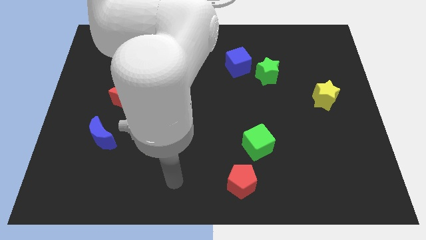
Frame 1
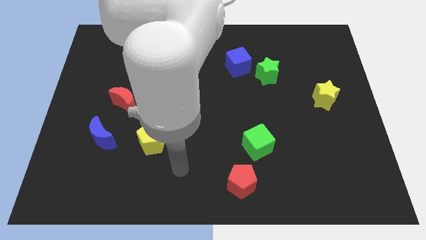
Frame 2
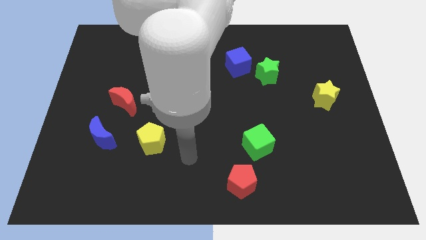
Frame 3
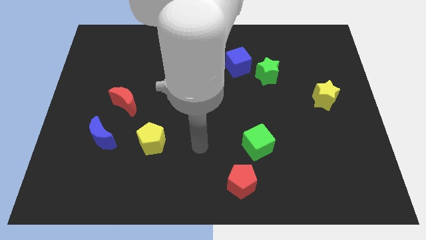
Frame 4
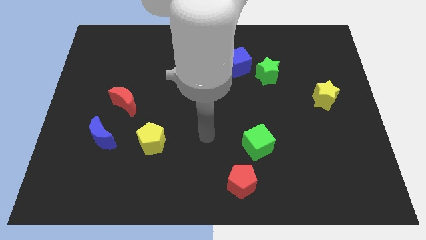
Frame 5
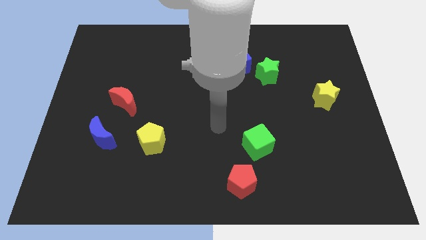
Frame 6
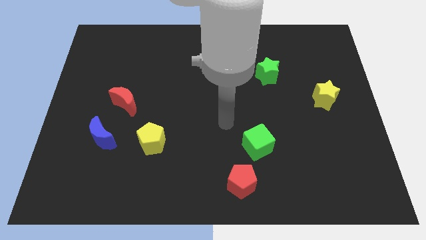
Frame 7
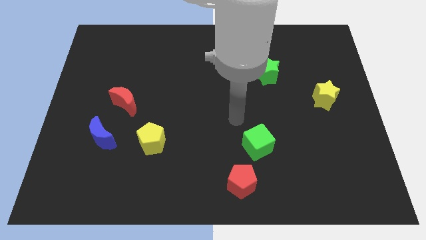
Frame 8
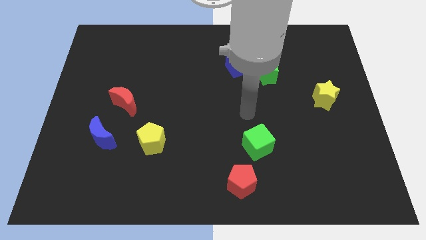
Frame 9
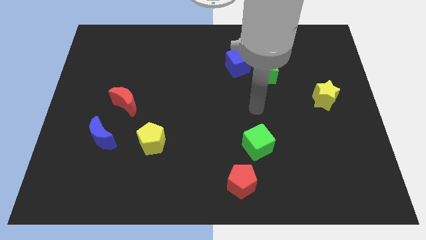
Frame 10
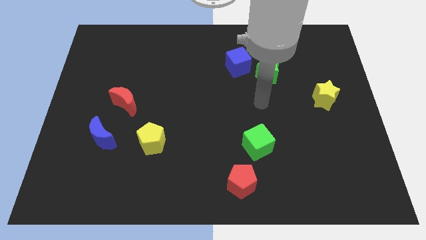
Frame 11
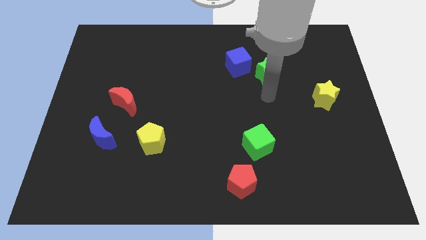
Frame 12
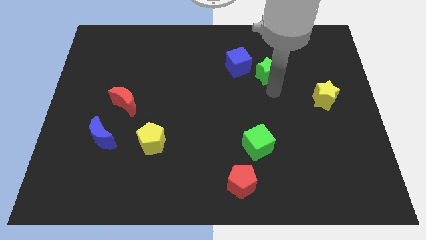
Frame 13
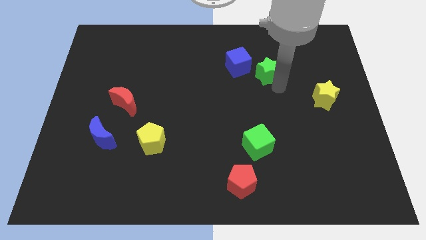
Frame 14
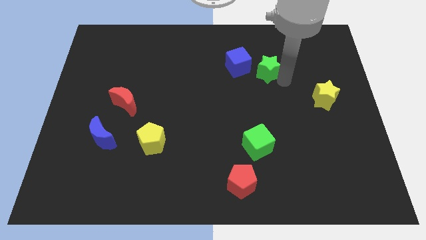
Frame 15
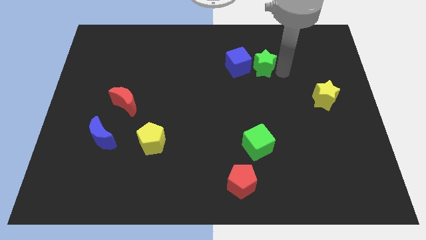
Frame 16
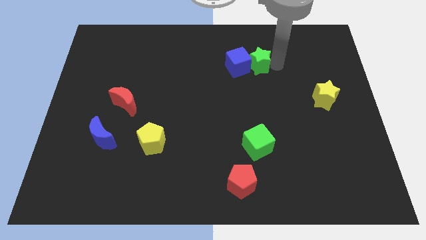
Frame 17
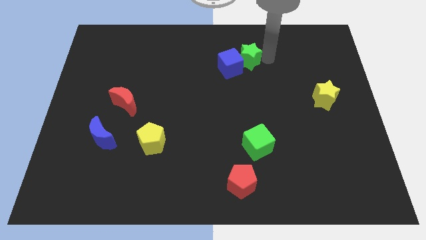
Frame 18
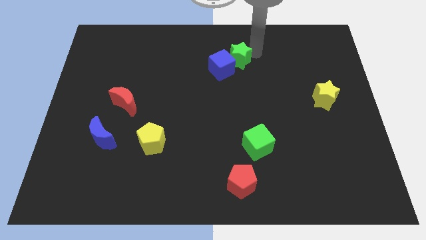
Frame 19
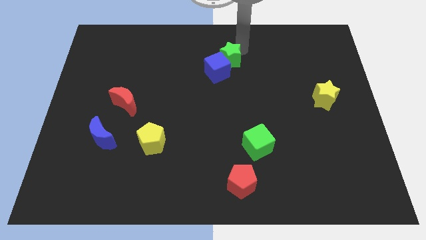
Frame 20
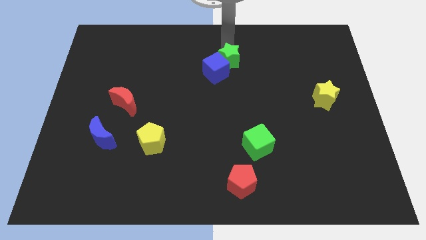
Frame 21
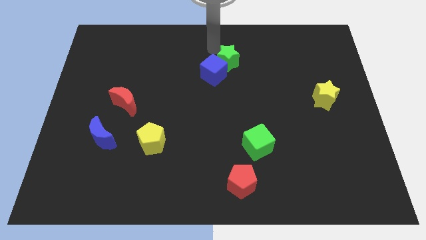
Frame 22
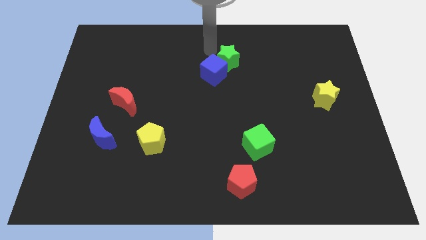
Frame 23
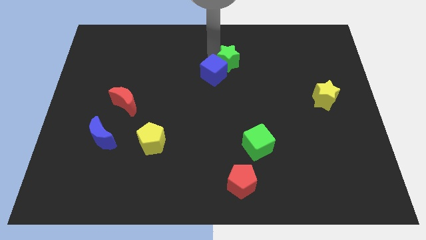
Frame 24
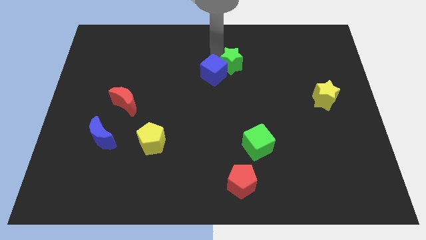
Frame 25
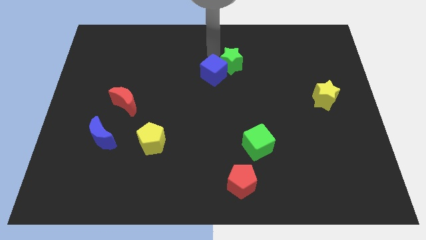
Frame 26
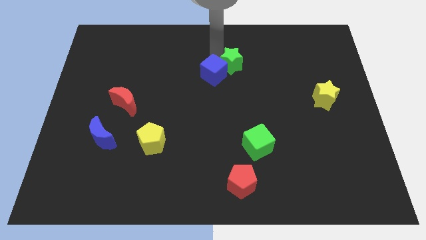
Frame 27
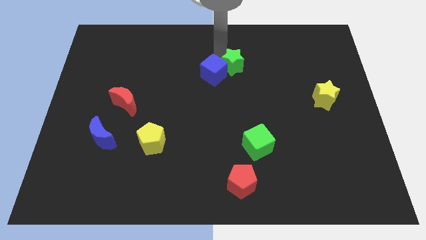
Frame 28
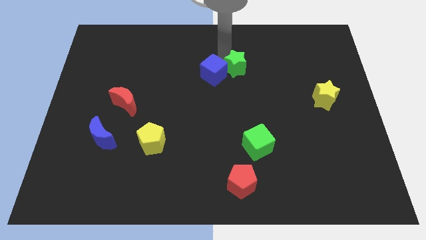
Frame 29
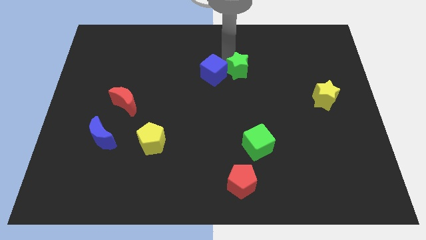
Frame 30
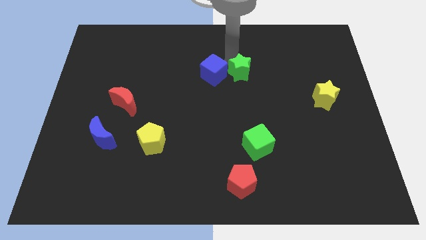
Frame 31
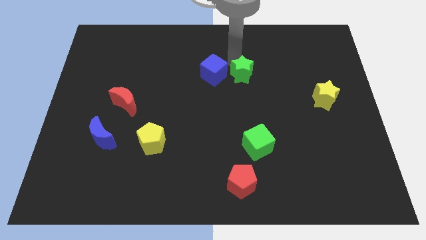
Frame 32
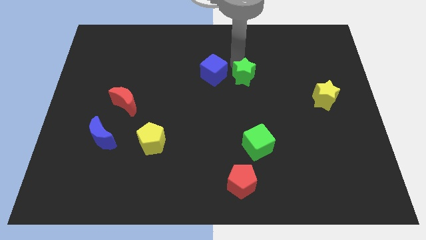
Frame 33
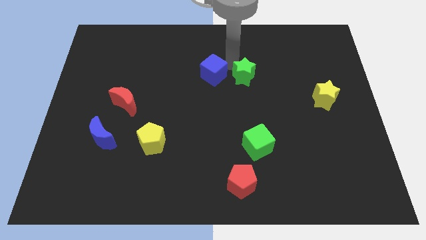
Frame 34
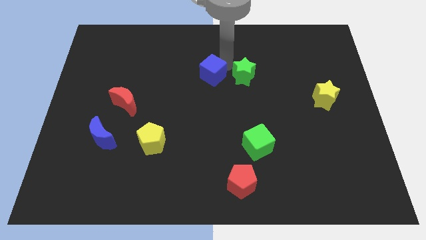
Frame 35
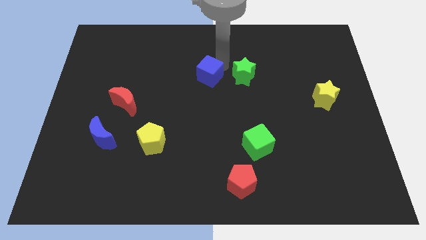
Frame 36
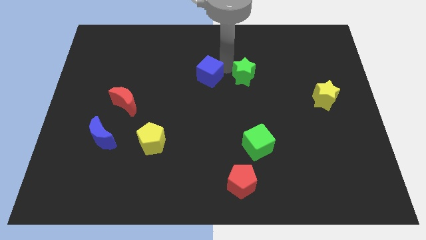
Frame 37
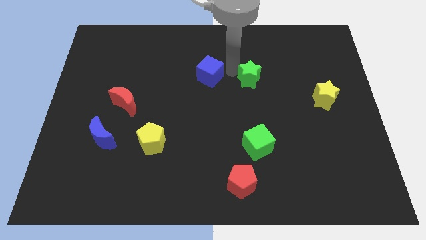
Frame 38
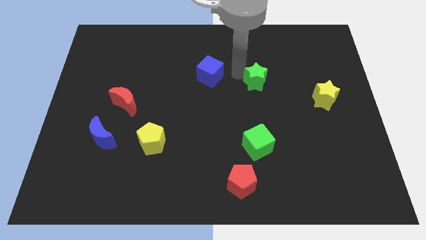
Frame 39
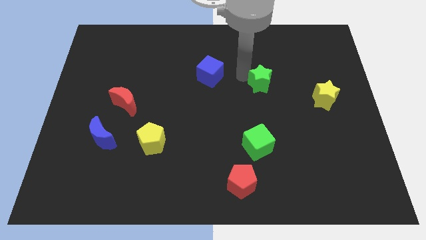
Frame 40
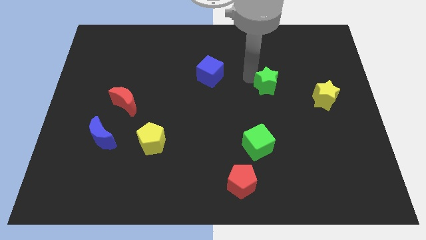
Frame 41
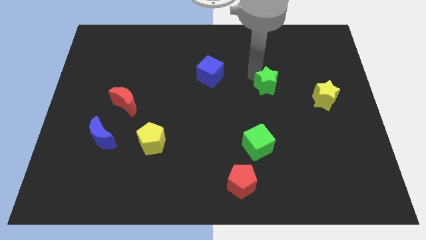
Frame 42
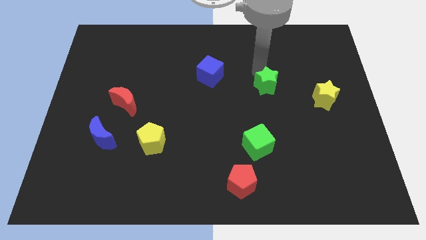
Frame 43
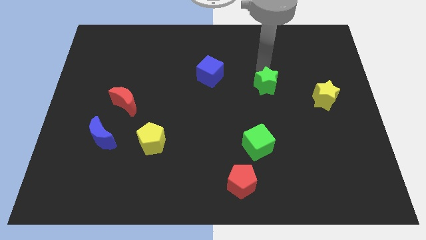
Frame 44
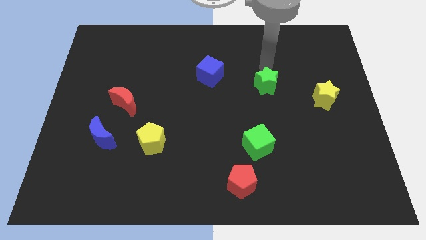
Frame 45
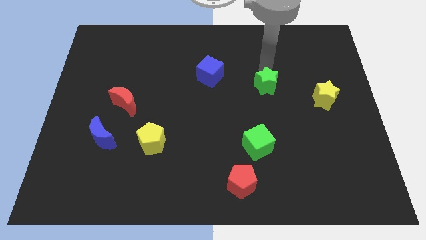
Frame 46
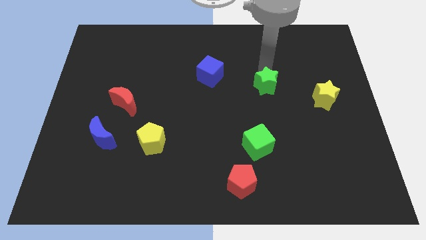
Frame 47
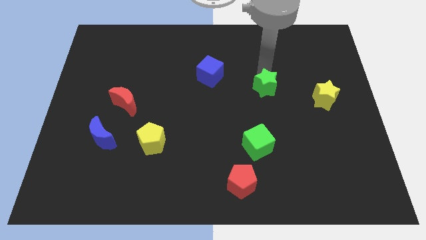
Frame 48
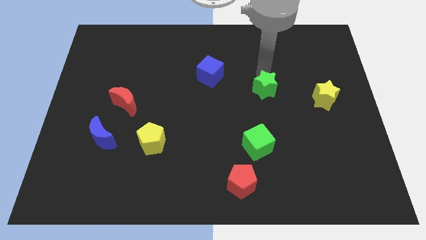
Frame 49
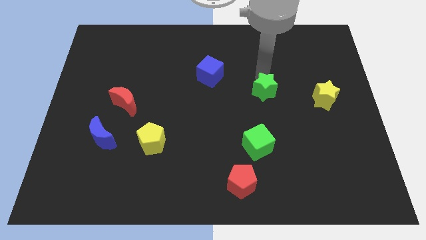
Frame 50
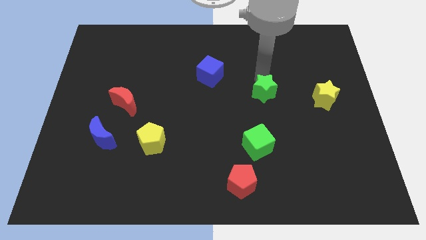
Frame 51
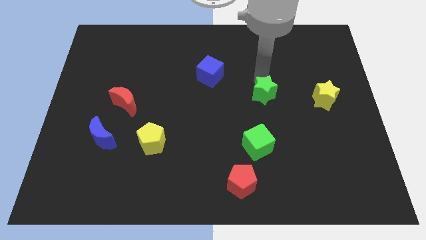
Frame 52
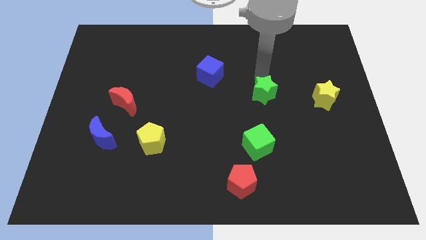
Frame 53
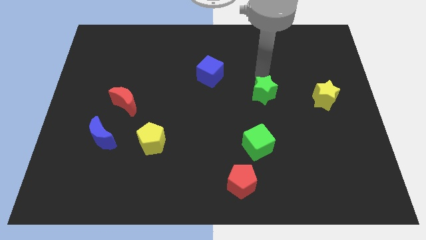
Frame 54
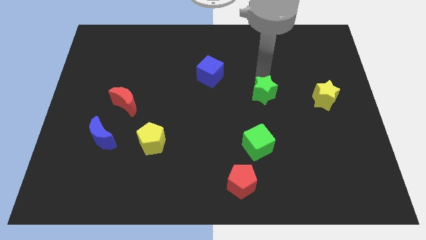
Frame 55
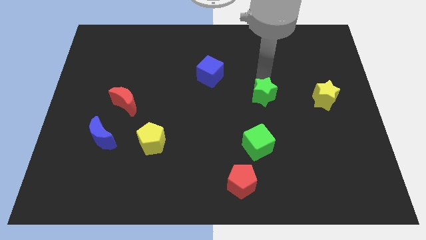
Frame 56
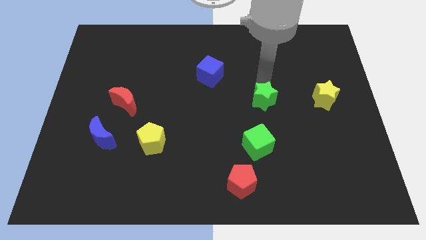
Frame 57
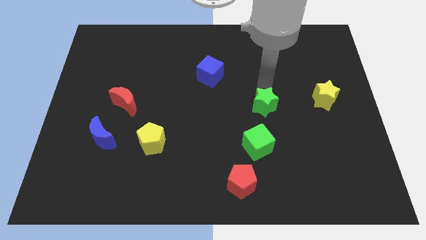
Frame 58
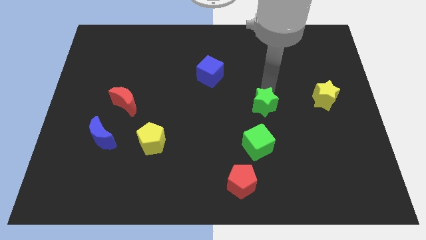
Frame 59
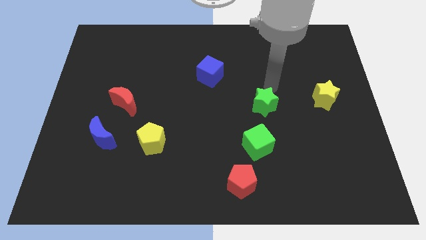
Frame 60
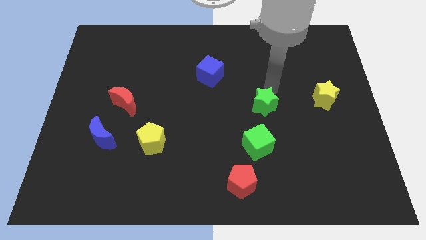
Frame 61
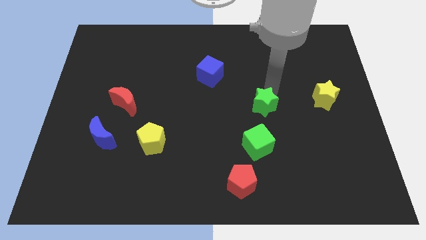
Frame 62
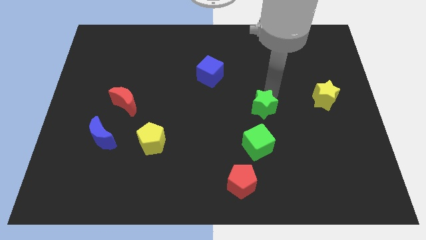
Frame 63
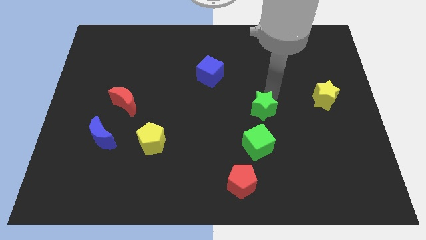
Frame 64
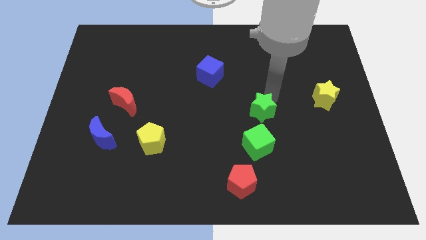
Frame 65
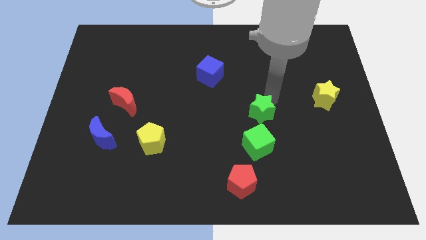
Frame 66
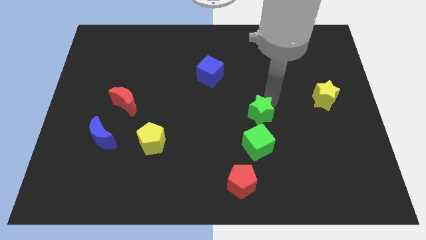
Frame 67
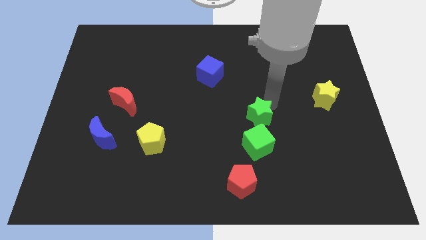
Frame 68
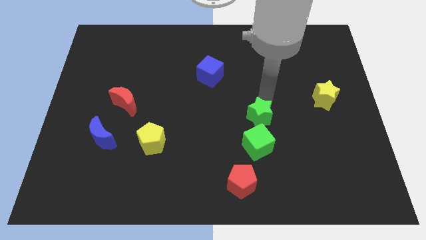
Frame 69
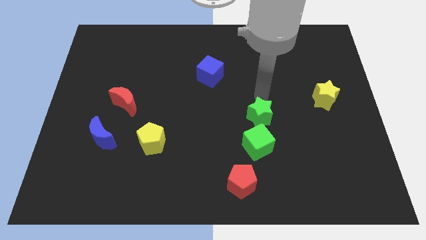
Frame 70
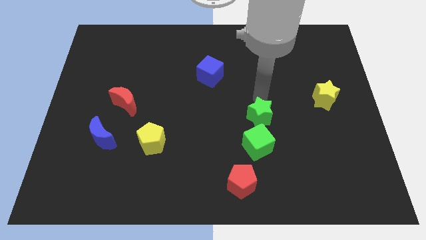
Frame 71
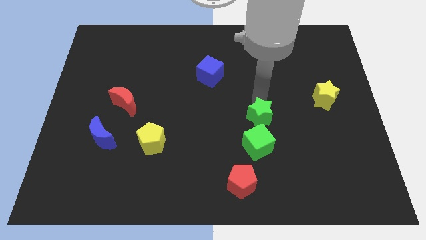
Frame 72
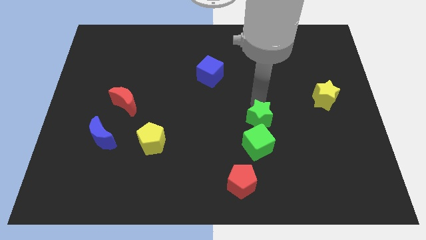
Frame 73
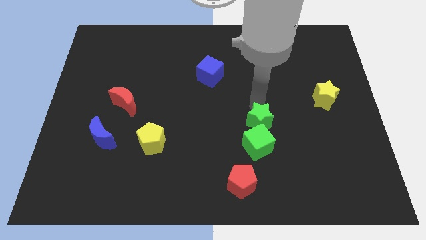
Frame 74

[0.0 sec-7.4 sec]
put the green star to the green cube

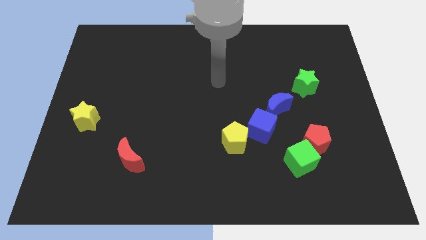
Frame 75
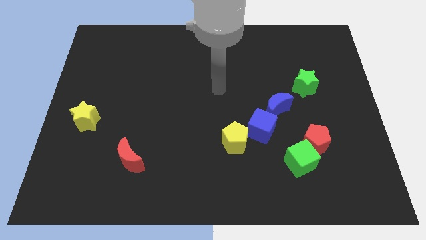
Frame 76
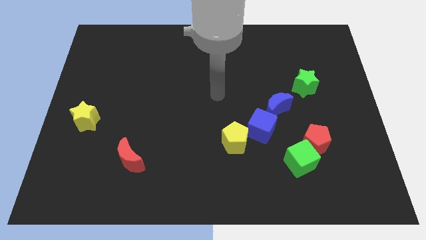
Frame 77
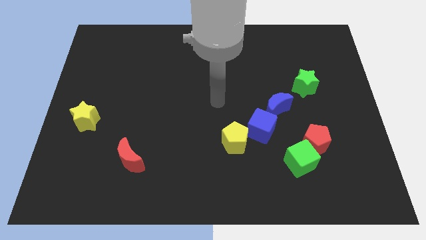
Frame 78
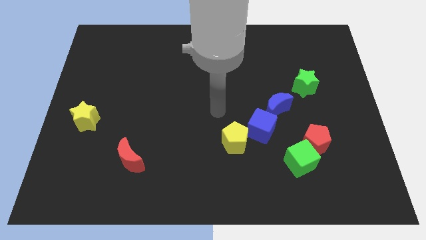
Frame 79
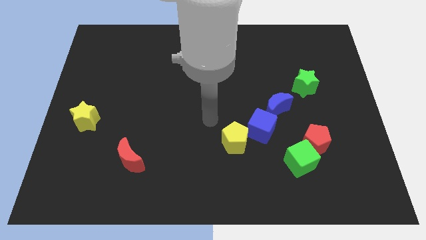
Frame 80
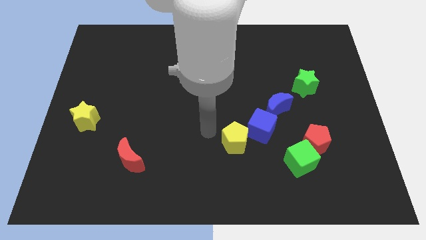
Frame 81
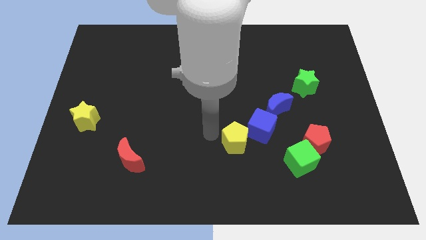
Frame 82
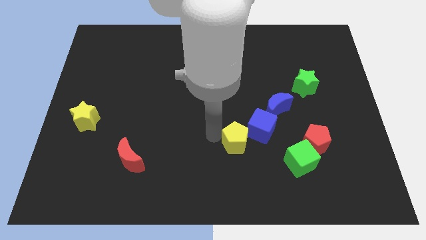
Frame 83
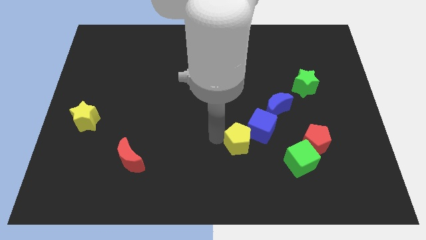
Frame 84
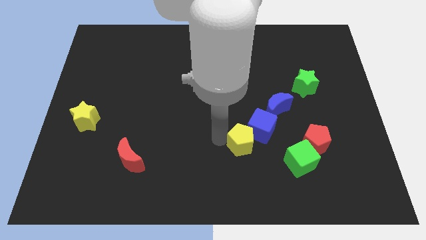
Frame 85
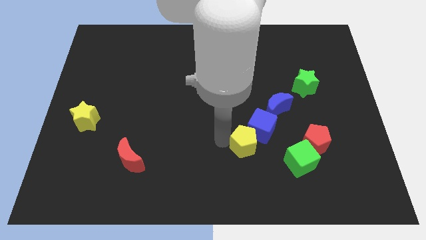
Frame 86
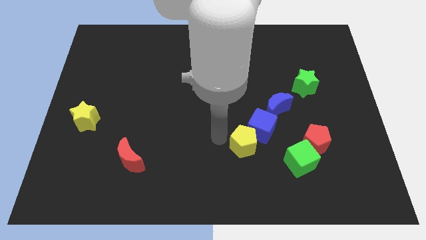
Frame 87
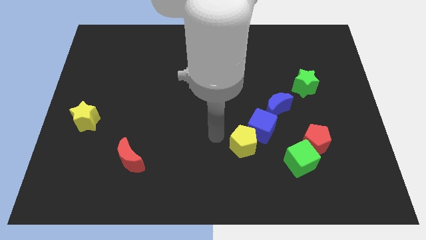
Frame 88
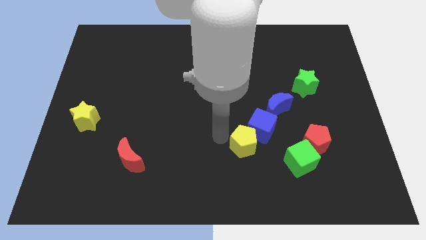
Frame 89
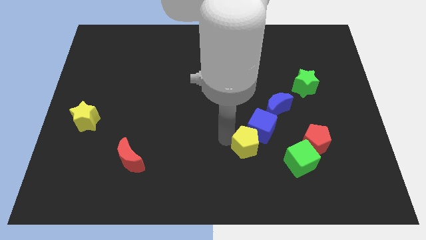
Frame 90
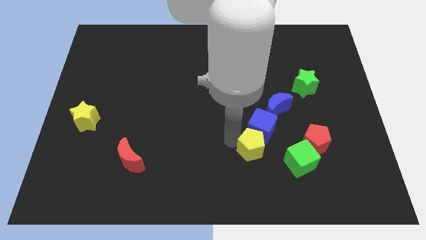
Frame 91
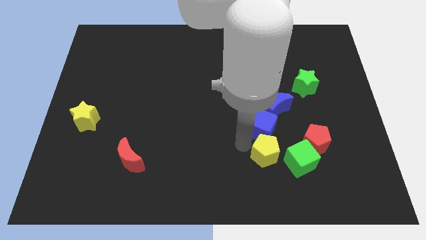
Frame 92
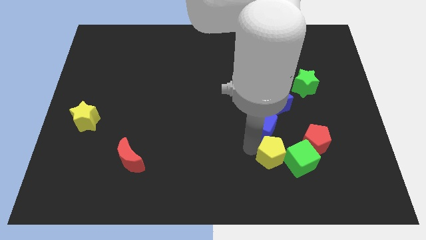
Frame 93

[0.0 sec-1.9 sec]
move the yellow pentagon to the green cube
